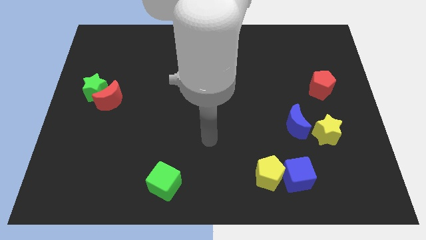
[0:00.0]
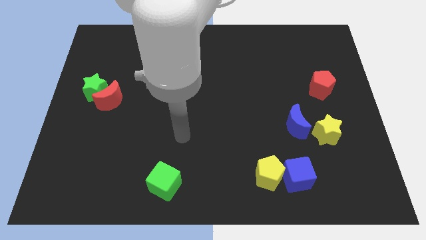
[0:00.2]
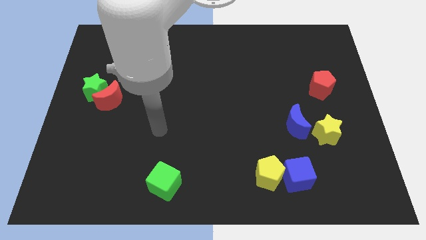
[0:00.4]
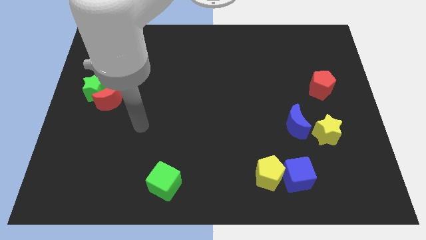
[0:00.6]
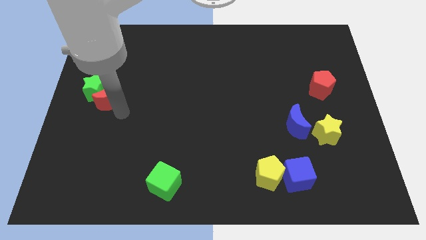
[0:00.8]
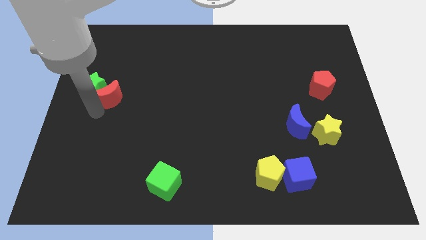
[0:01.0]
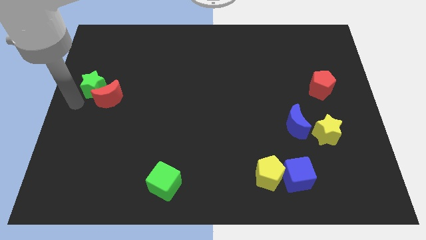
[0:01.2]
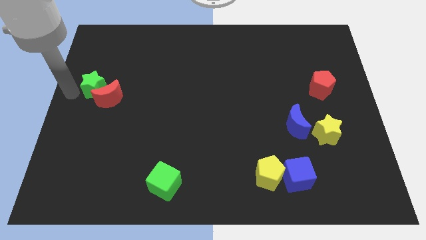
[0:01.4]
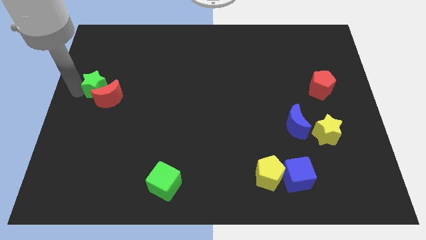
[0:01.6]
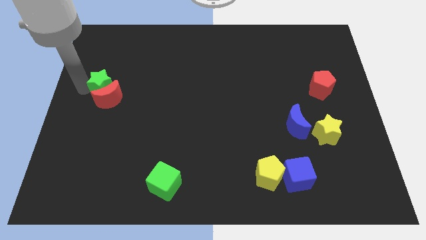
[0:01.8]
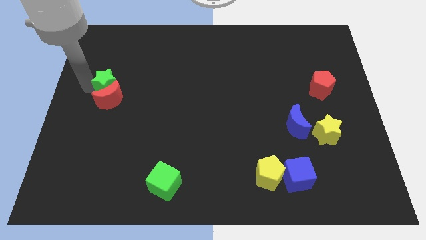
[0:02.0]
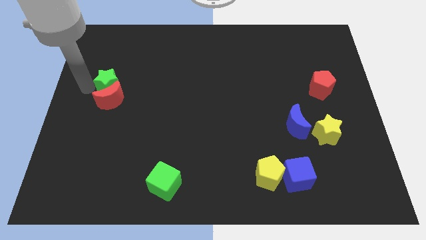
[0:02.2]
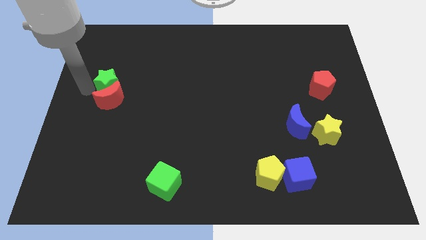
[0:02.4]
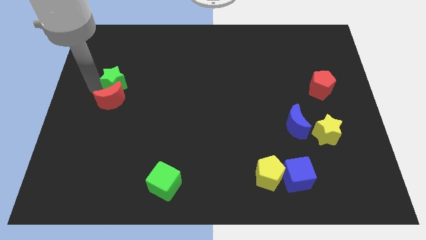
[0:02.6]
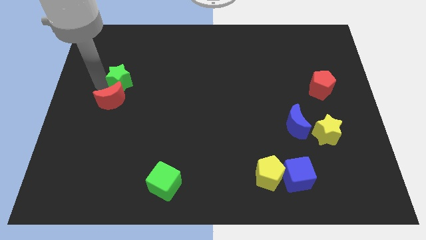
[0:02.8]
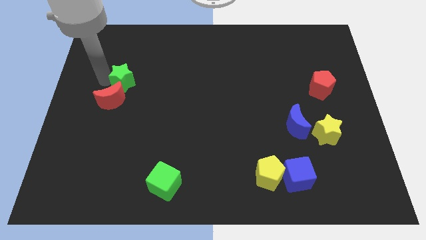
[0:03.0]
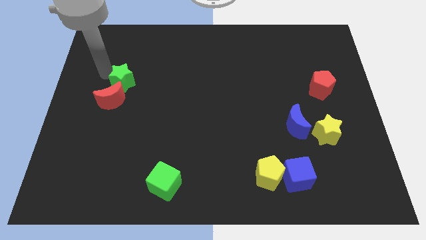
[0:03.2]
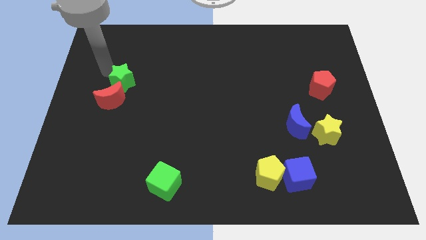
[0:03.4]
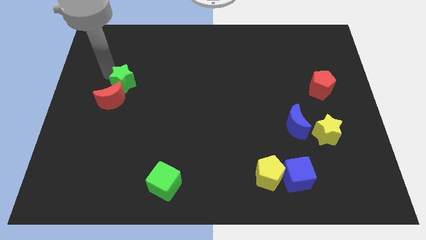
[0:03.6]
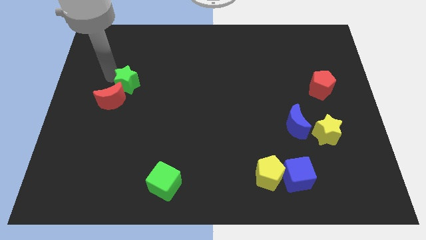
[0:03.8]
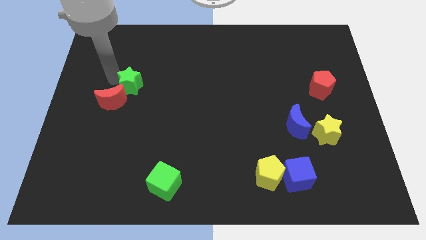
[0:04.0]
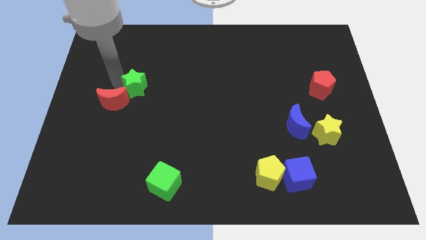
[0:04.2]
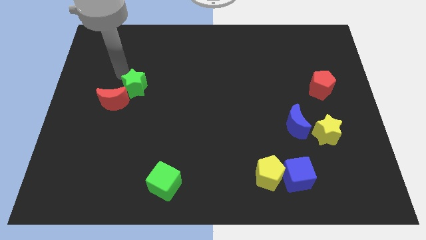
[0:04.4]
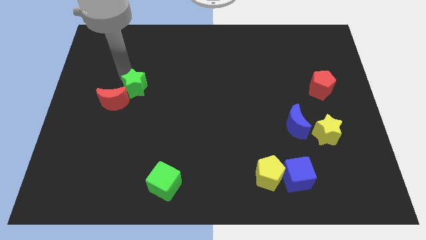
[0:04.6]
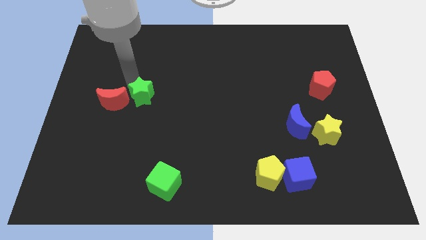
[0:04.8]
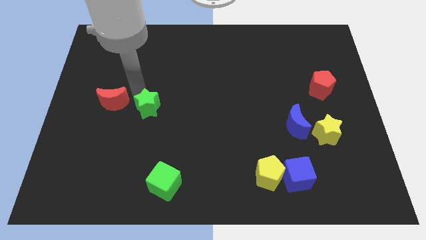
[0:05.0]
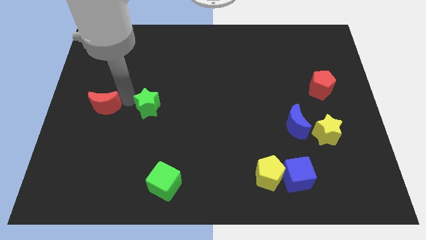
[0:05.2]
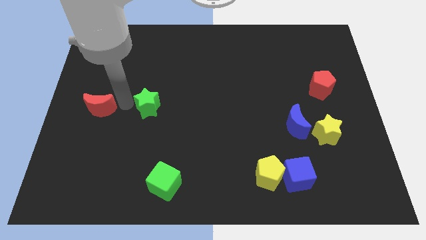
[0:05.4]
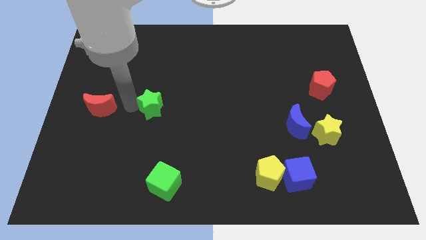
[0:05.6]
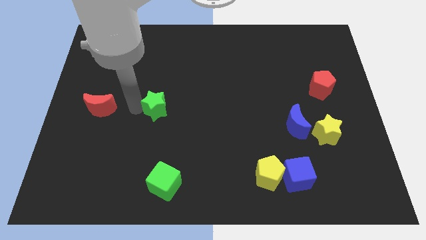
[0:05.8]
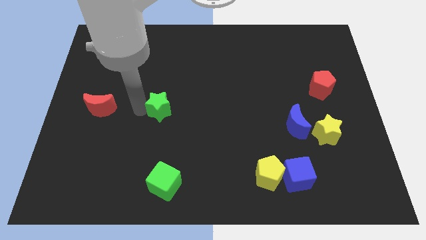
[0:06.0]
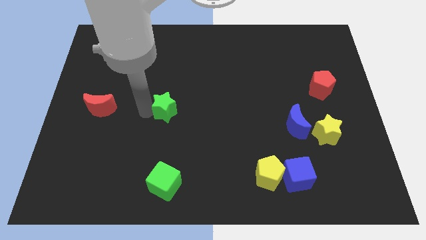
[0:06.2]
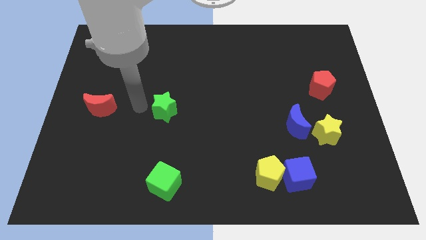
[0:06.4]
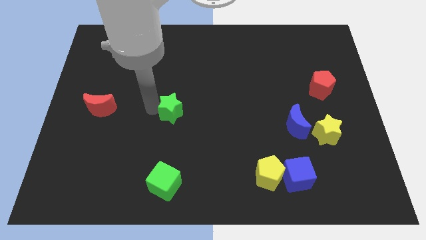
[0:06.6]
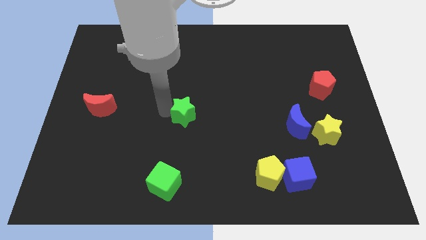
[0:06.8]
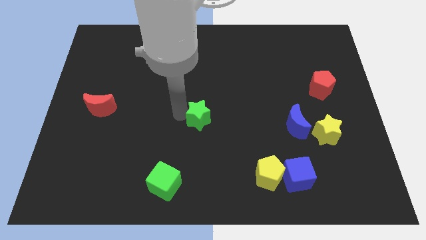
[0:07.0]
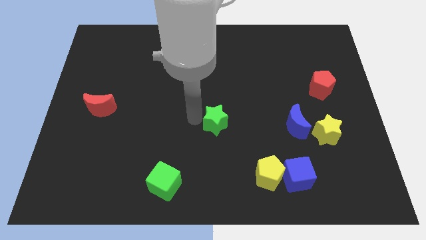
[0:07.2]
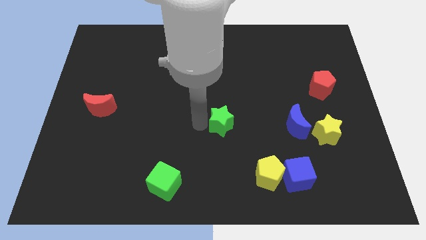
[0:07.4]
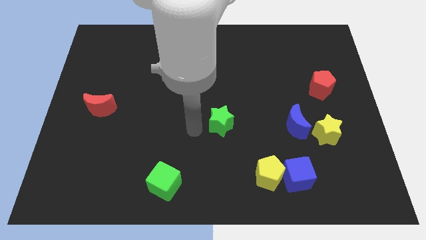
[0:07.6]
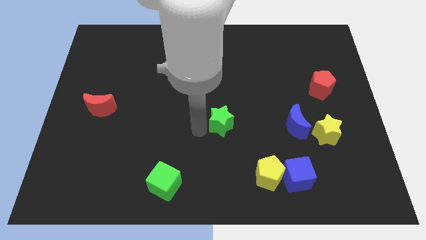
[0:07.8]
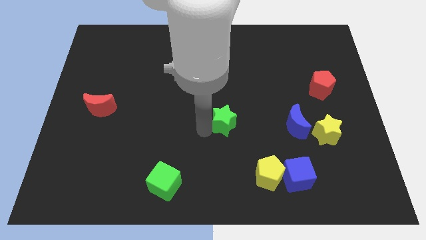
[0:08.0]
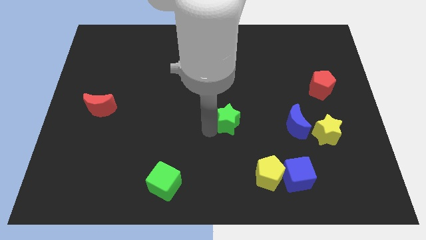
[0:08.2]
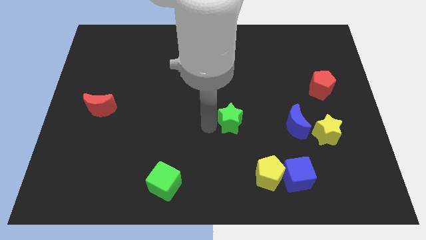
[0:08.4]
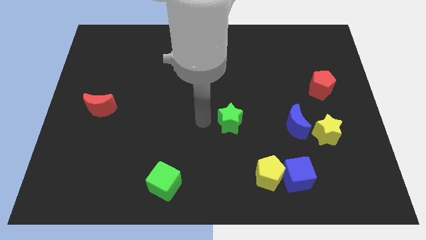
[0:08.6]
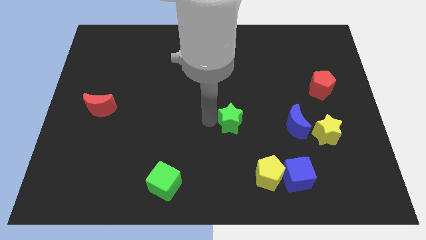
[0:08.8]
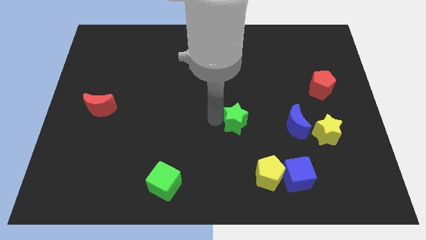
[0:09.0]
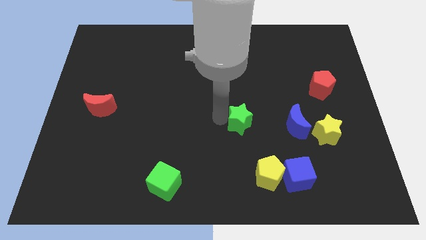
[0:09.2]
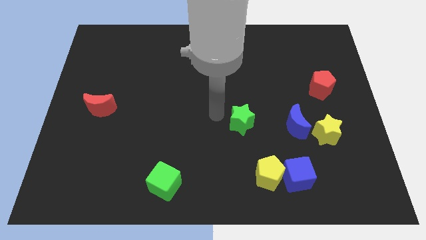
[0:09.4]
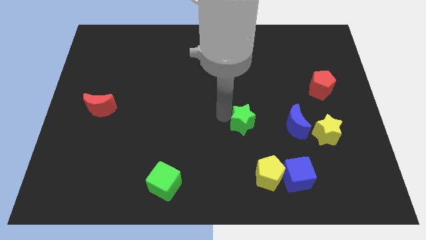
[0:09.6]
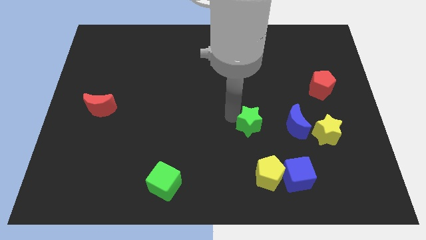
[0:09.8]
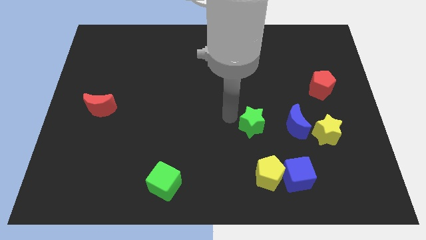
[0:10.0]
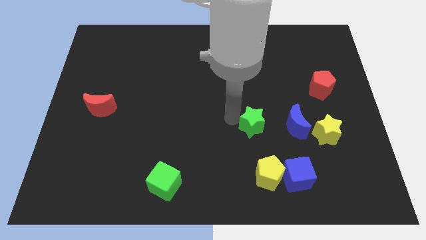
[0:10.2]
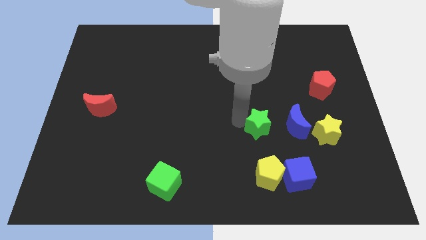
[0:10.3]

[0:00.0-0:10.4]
put the green star to the left of the yellow star

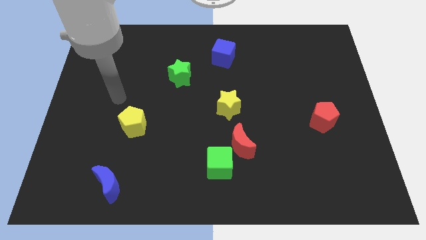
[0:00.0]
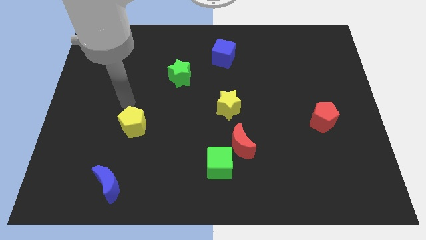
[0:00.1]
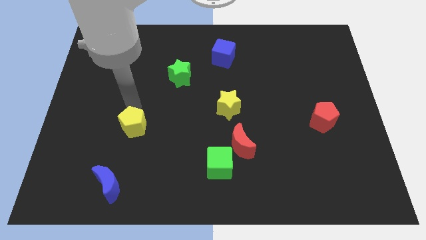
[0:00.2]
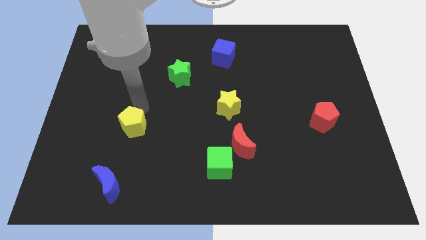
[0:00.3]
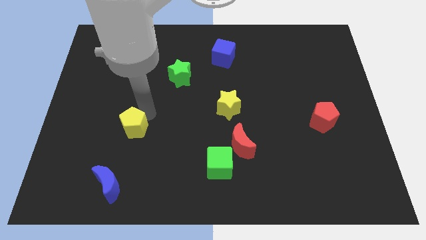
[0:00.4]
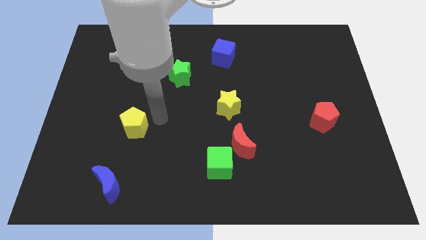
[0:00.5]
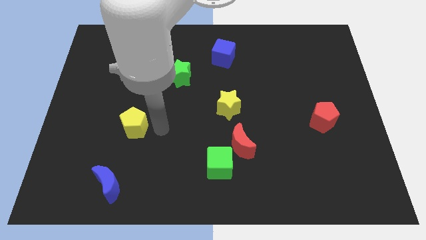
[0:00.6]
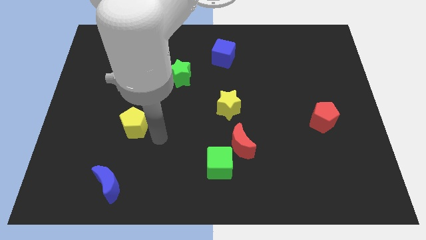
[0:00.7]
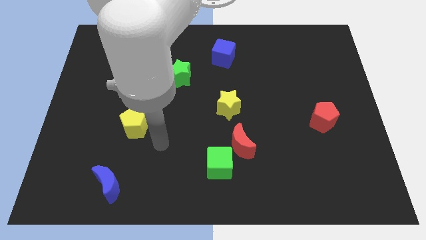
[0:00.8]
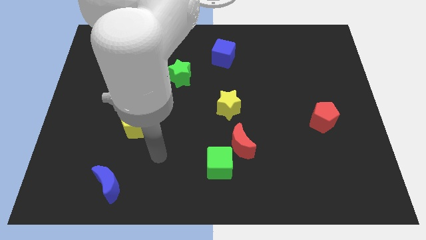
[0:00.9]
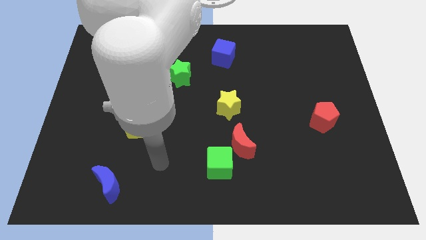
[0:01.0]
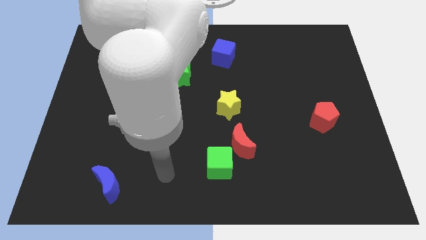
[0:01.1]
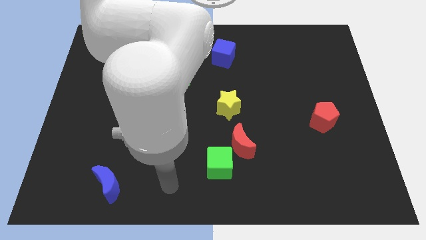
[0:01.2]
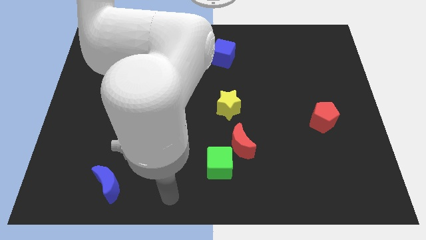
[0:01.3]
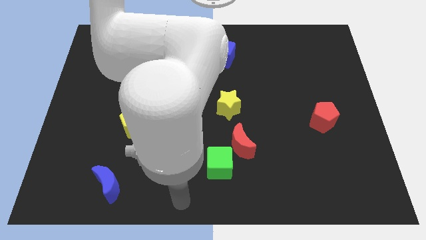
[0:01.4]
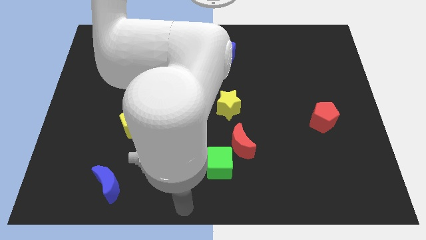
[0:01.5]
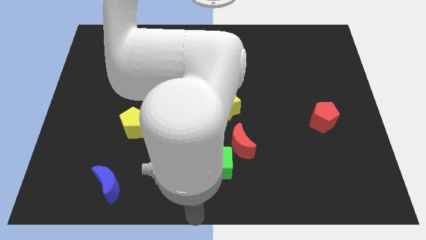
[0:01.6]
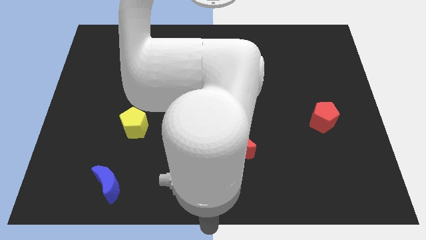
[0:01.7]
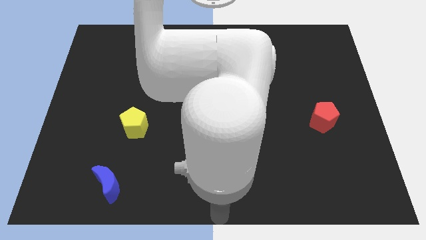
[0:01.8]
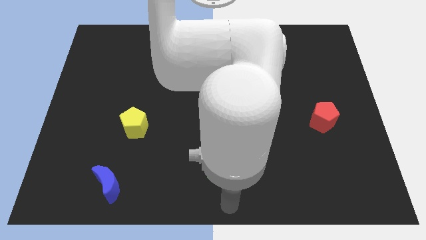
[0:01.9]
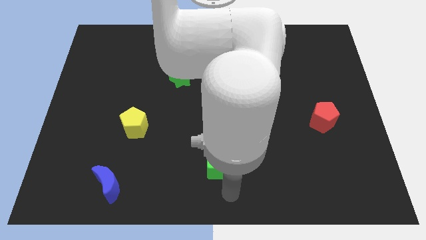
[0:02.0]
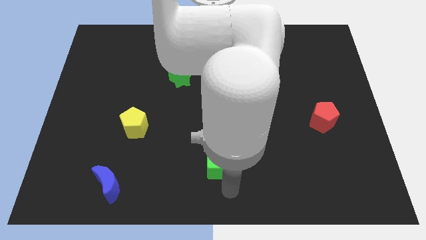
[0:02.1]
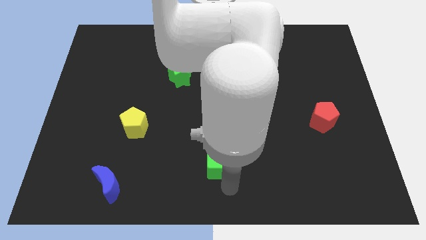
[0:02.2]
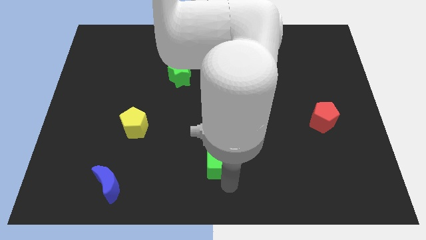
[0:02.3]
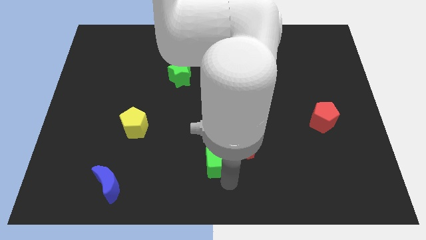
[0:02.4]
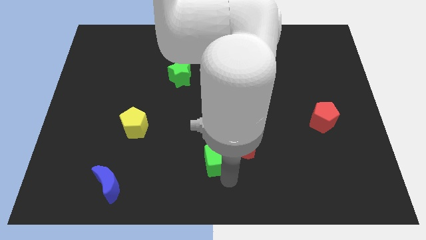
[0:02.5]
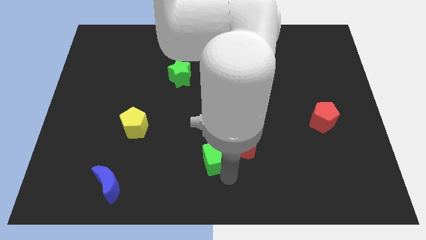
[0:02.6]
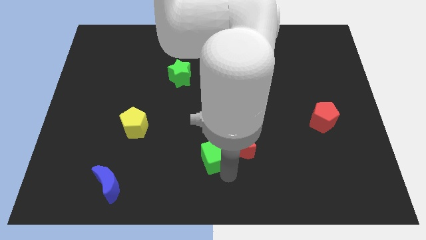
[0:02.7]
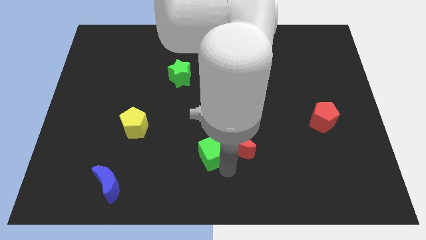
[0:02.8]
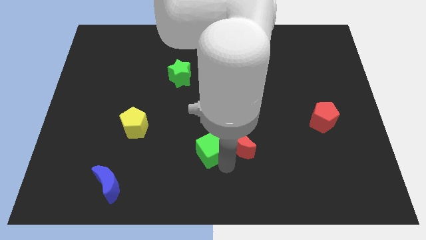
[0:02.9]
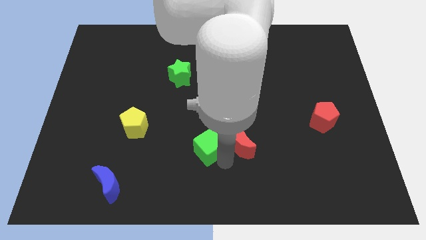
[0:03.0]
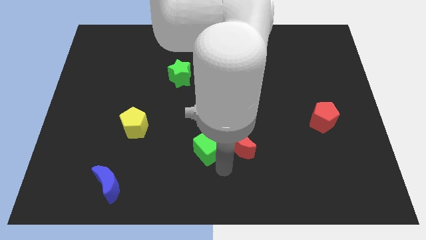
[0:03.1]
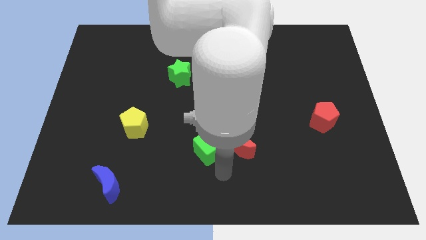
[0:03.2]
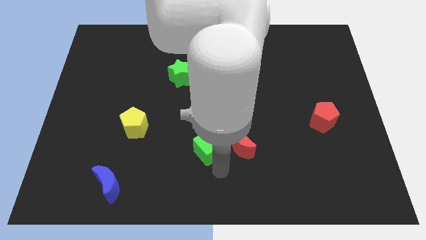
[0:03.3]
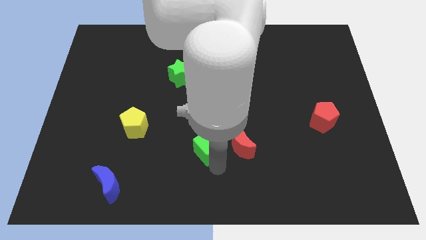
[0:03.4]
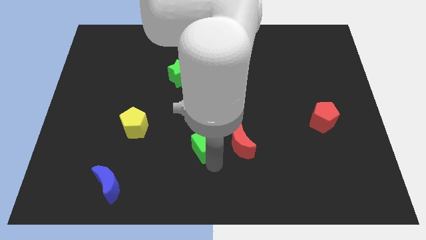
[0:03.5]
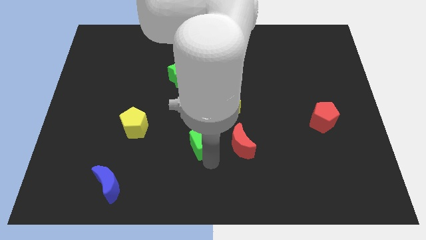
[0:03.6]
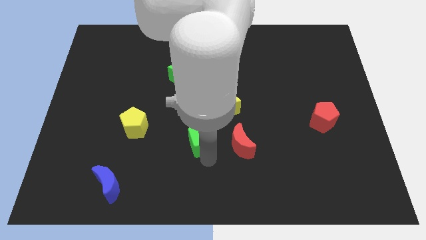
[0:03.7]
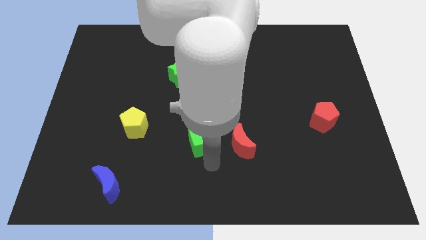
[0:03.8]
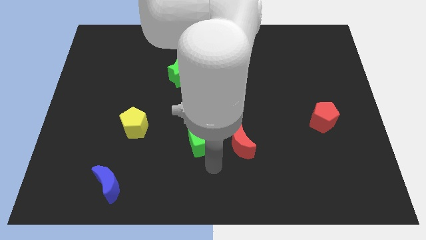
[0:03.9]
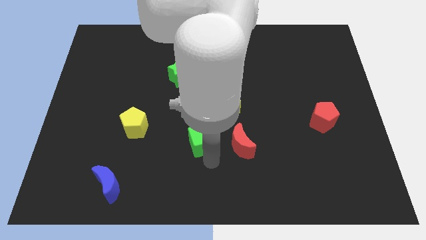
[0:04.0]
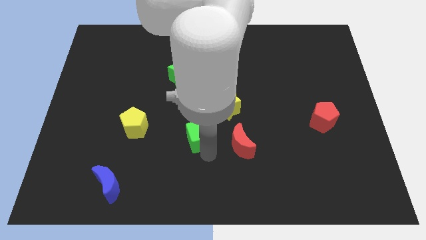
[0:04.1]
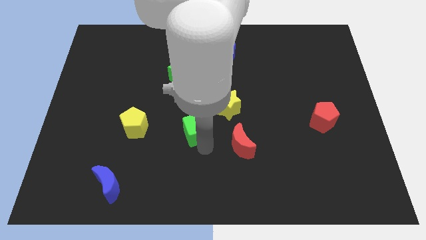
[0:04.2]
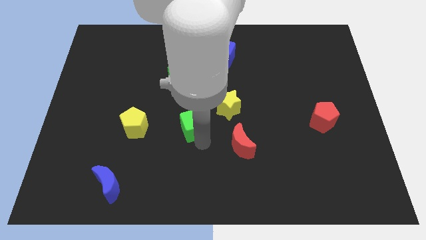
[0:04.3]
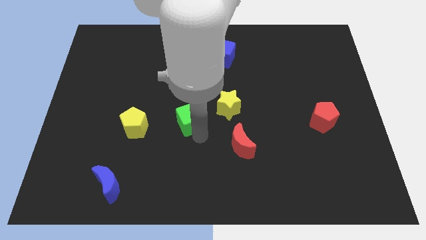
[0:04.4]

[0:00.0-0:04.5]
put the green cube to the bottom of the green star
